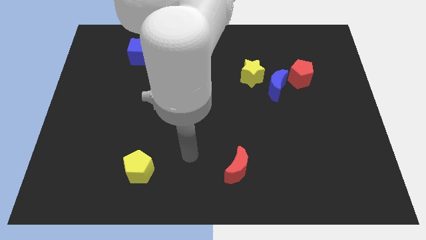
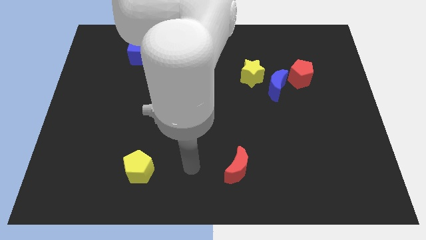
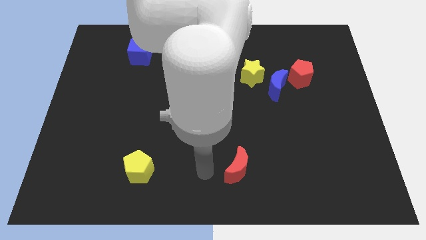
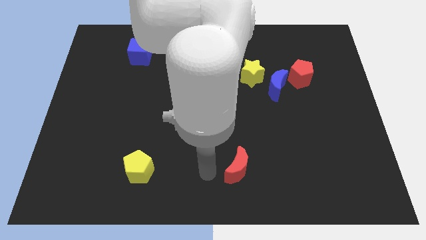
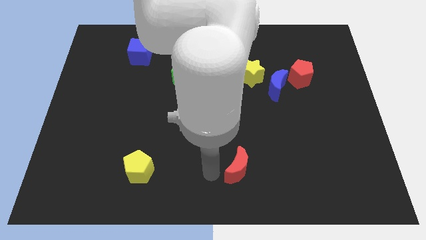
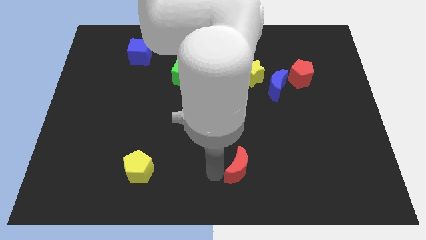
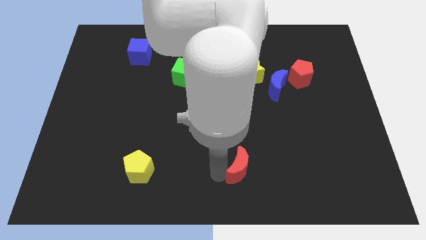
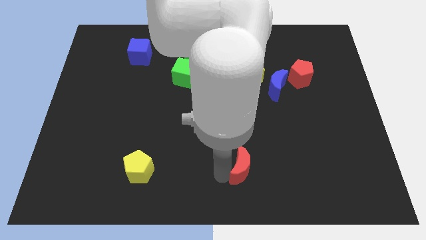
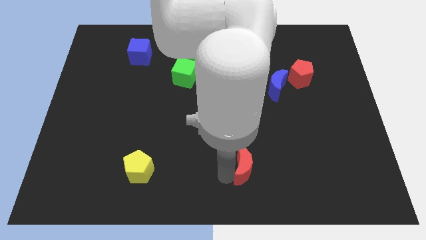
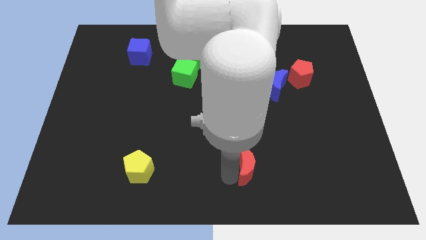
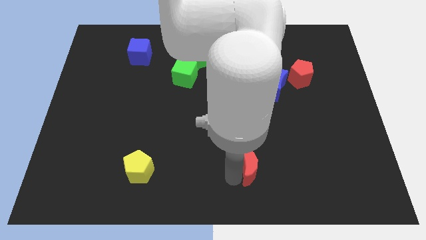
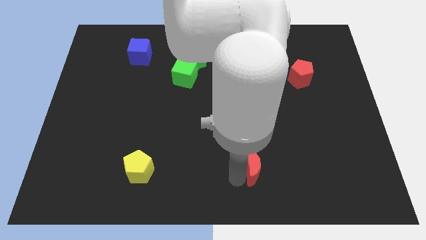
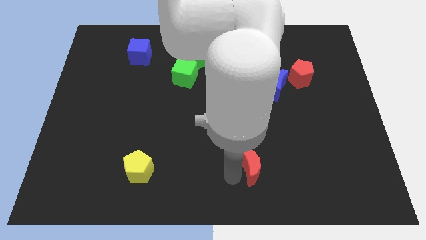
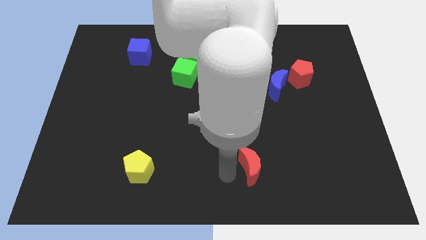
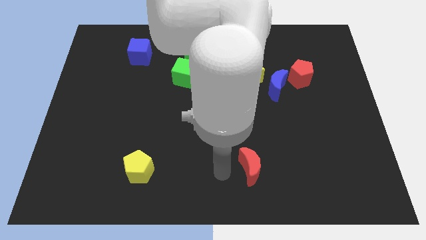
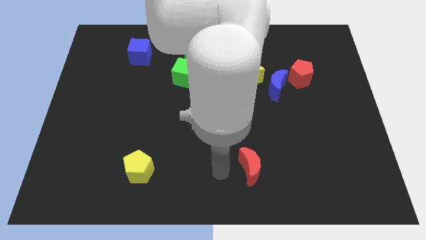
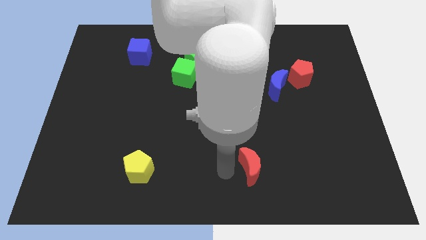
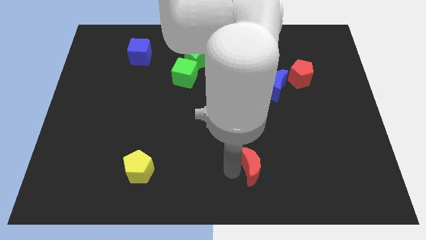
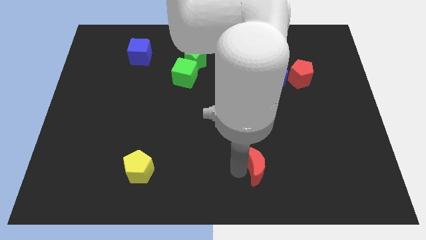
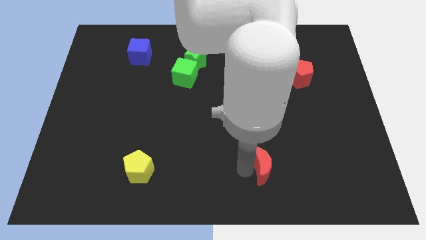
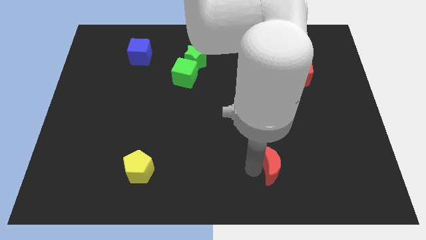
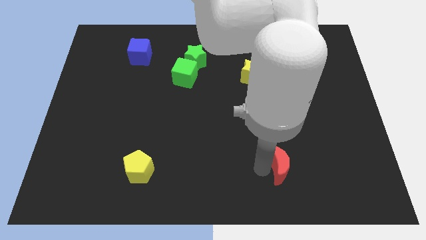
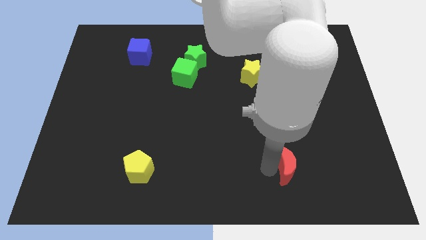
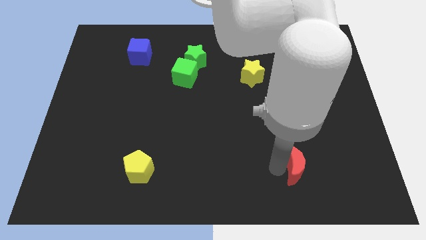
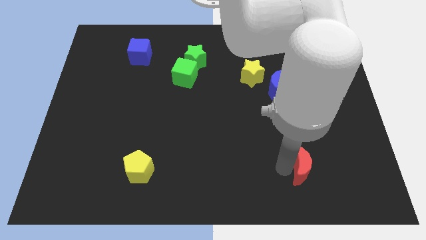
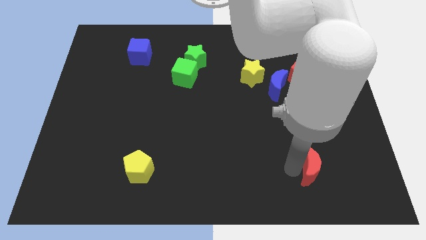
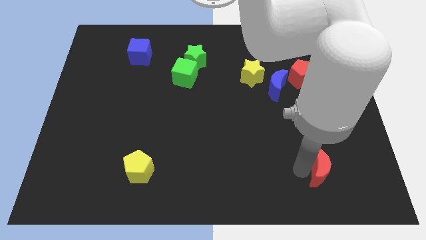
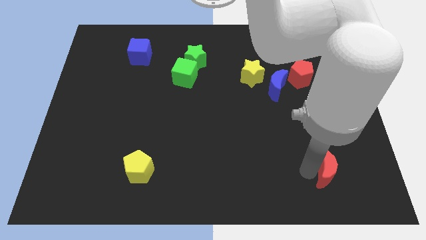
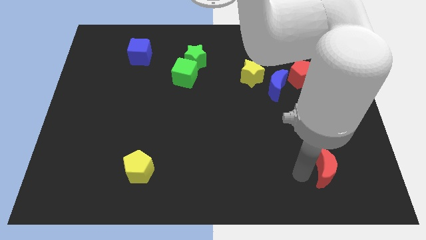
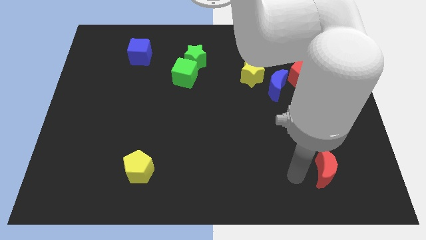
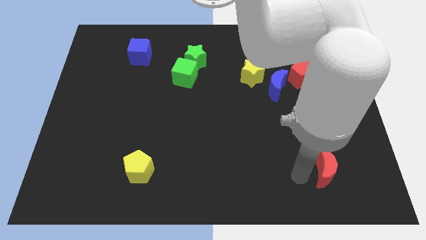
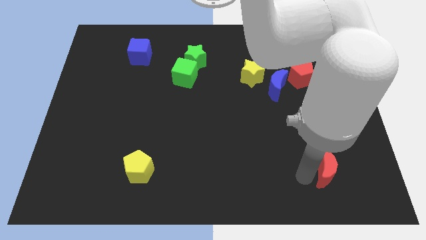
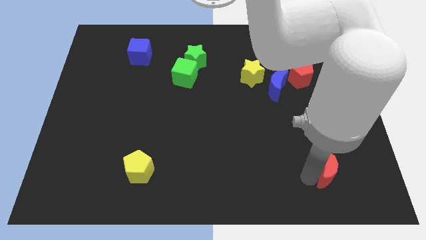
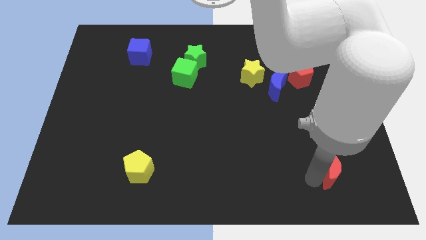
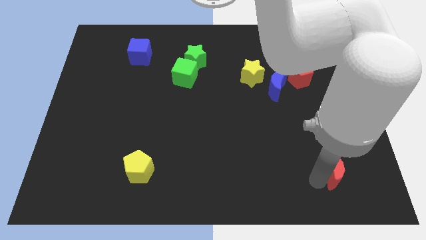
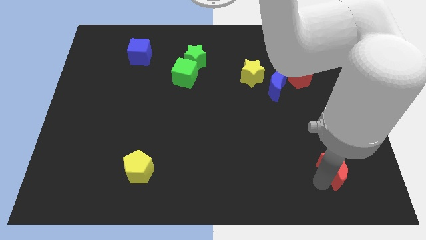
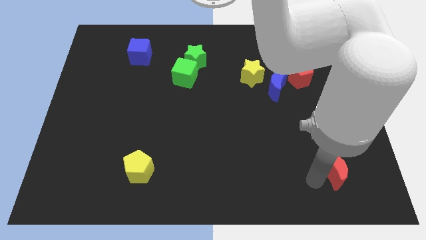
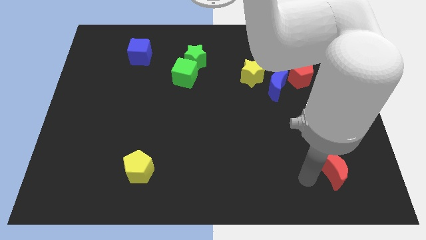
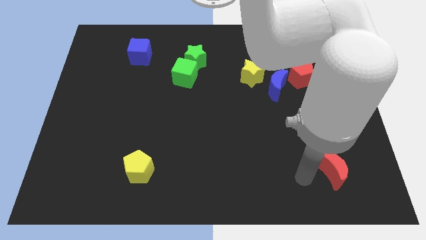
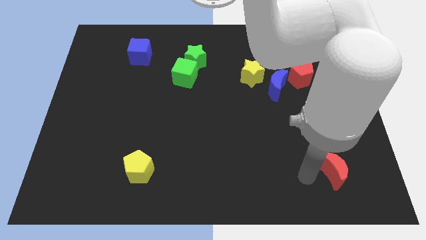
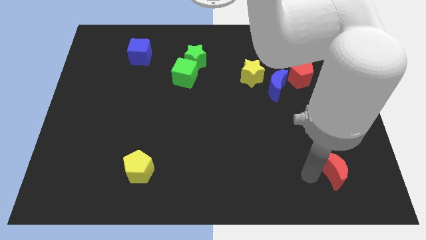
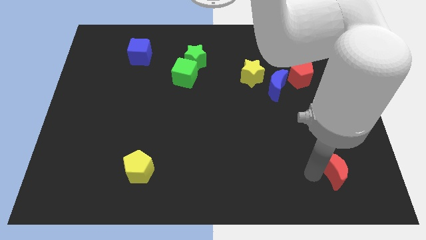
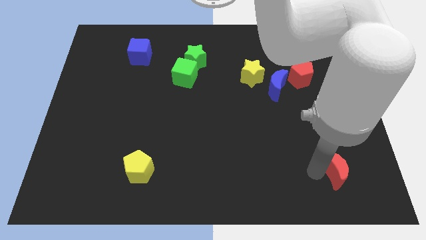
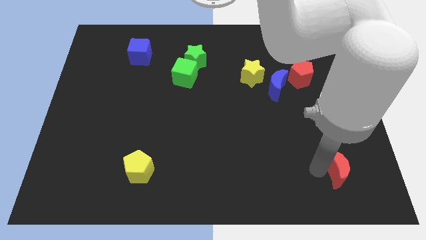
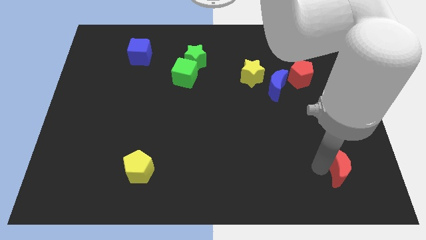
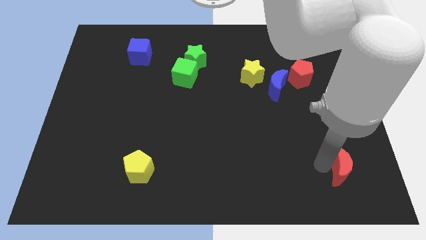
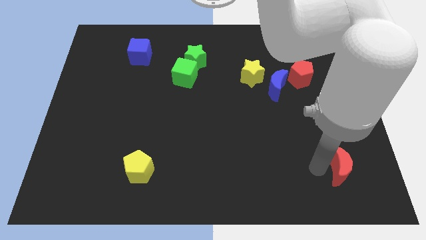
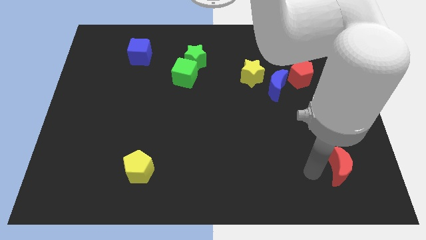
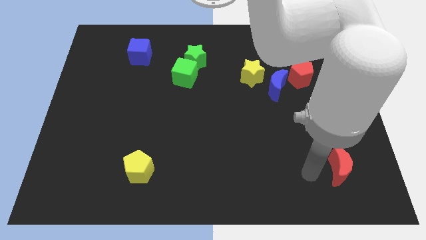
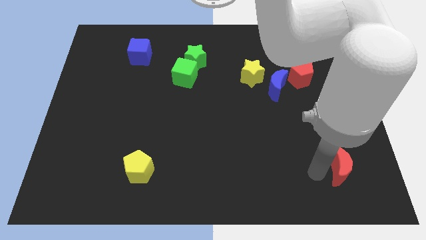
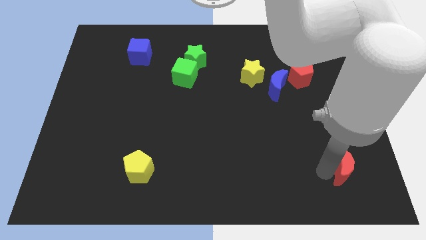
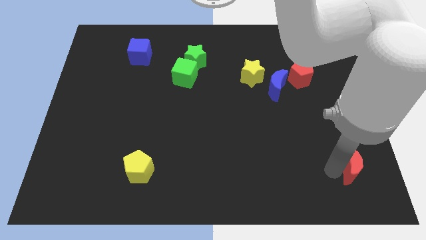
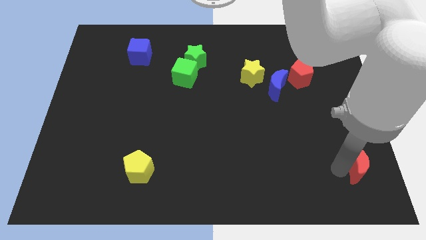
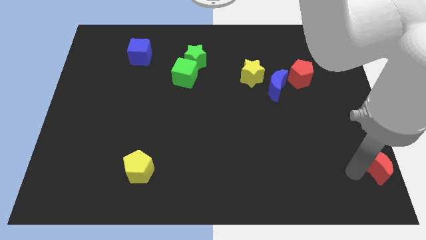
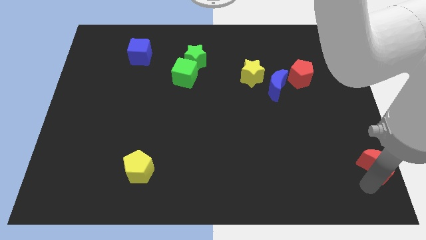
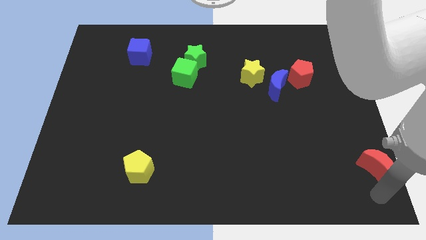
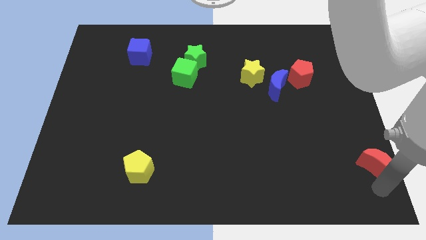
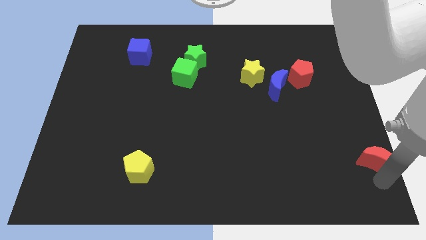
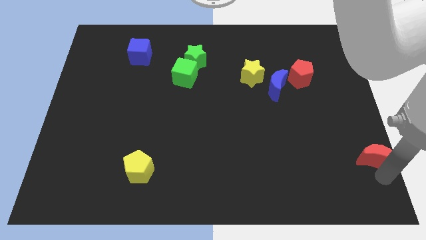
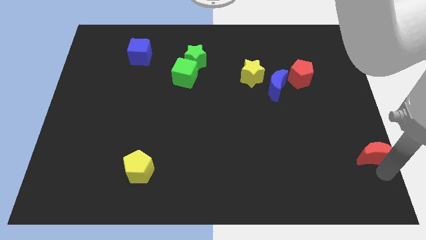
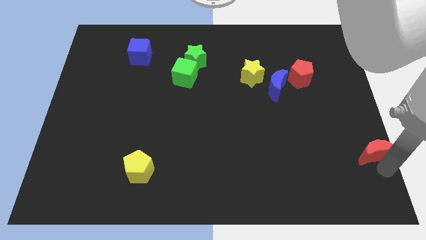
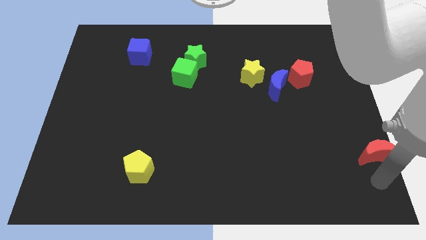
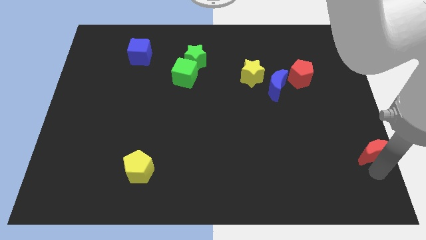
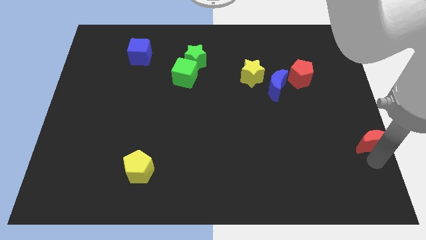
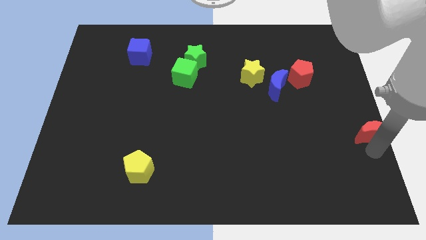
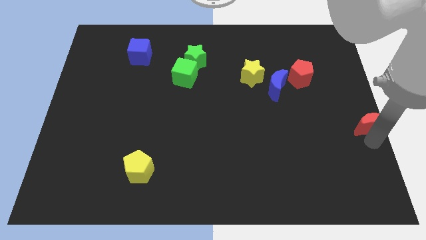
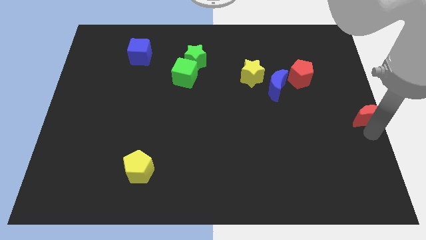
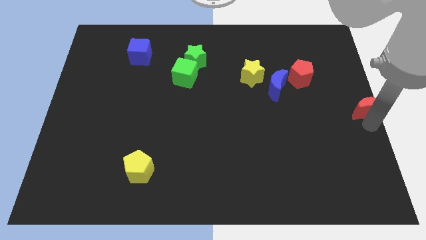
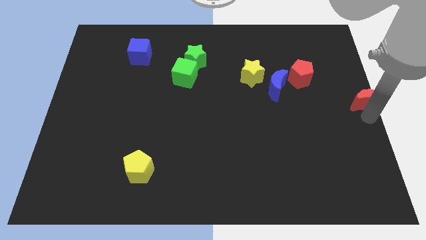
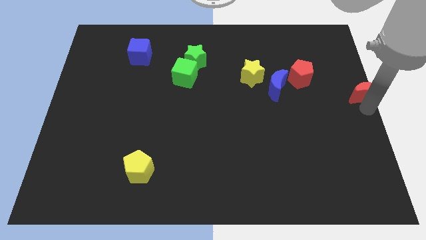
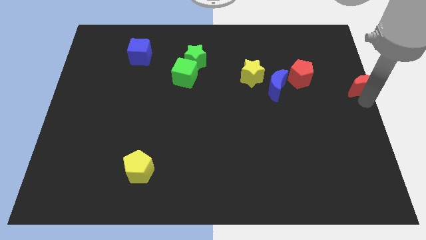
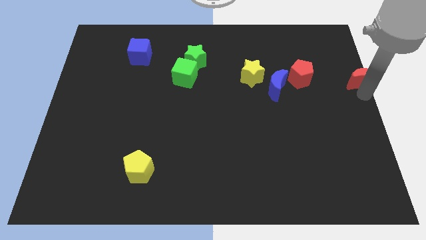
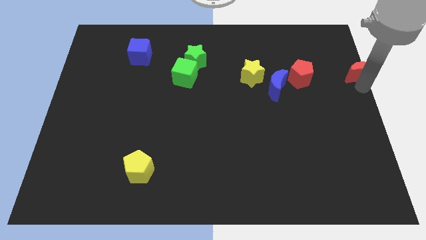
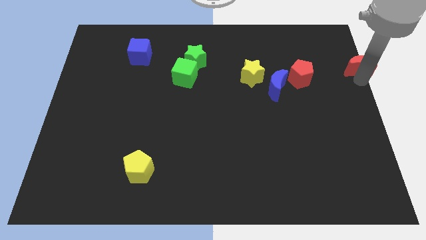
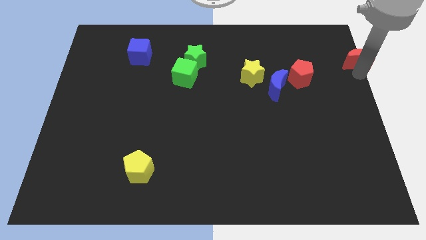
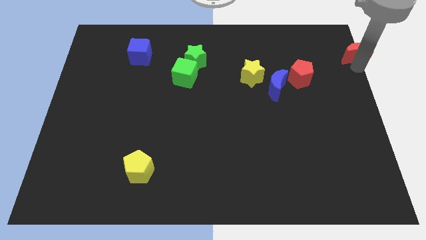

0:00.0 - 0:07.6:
push the red moon to the upper right corner
